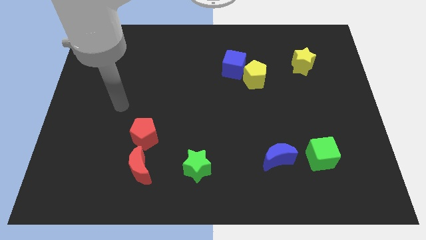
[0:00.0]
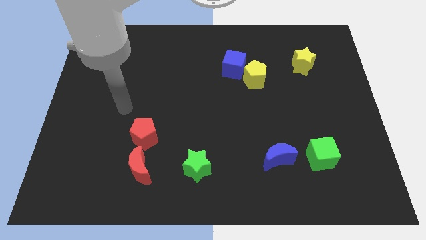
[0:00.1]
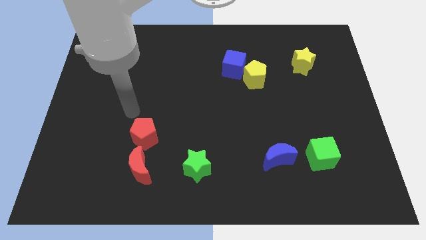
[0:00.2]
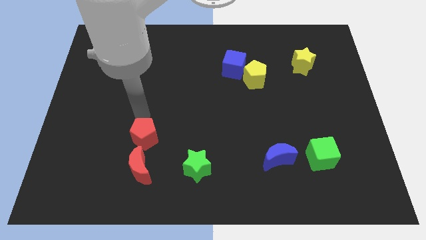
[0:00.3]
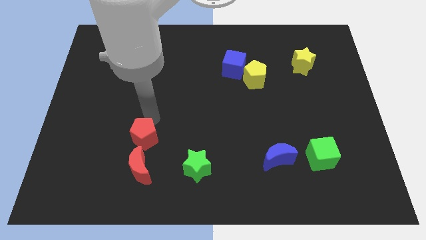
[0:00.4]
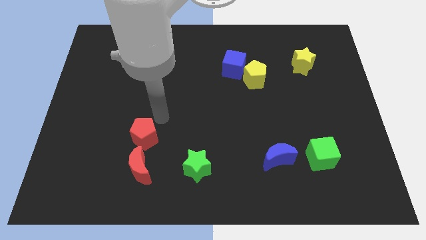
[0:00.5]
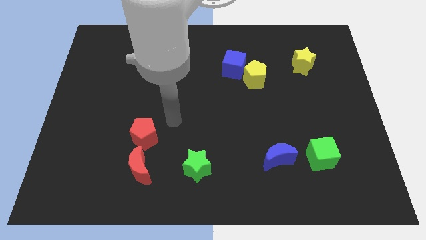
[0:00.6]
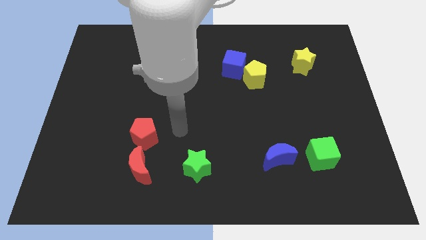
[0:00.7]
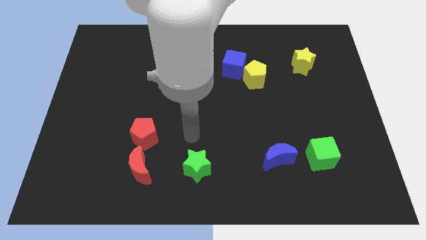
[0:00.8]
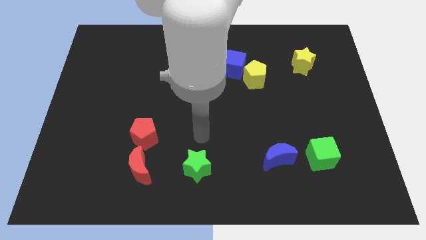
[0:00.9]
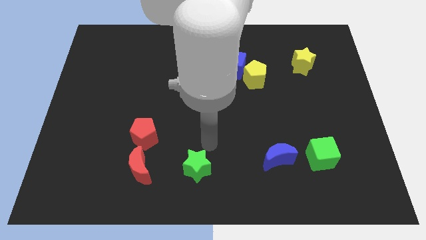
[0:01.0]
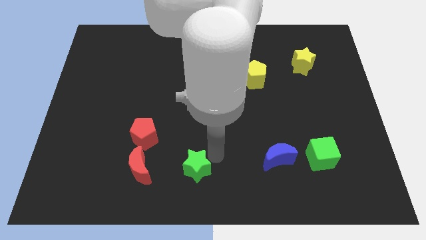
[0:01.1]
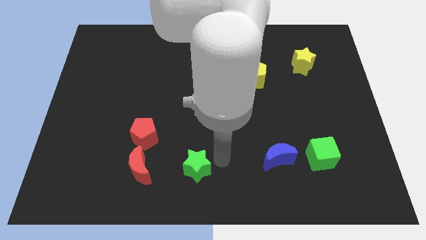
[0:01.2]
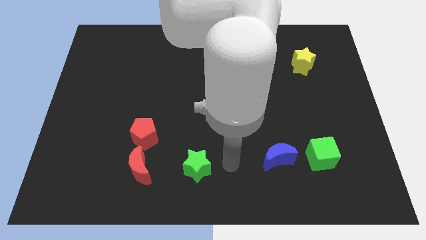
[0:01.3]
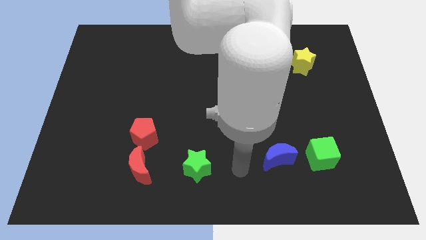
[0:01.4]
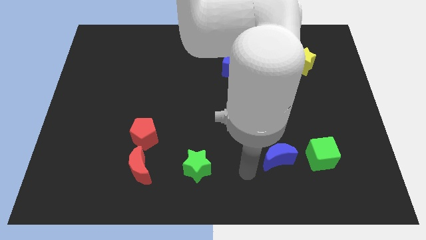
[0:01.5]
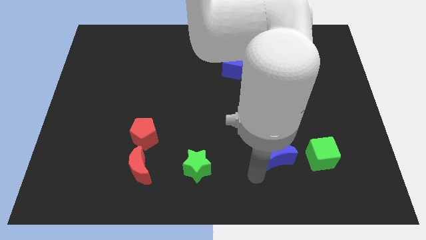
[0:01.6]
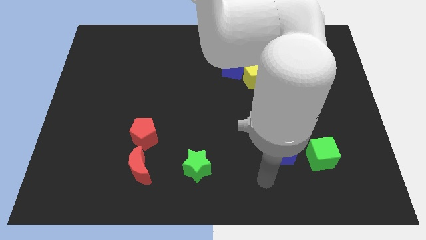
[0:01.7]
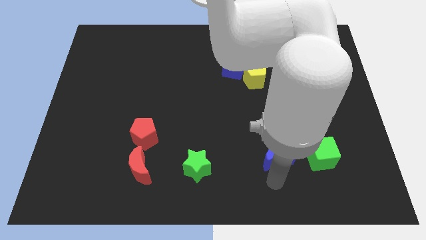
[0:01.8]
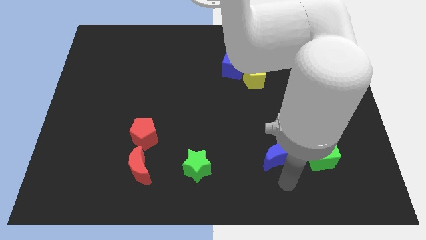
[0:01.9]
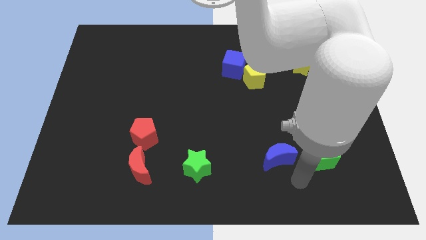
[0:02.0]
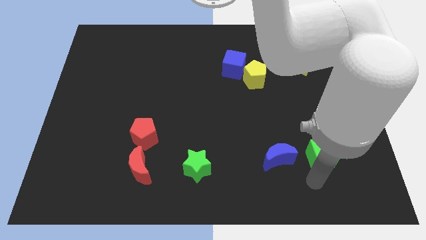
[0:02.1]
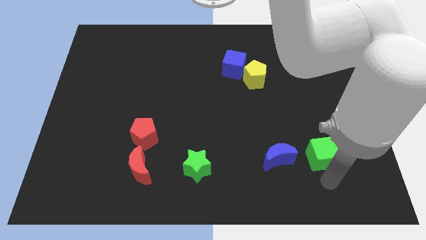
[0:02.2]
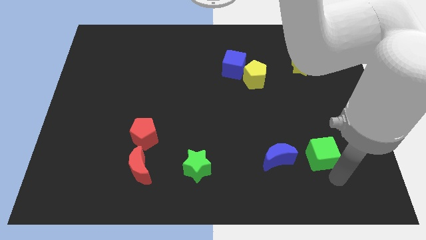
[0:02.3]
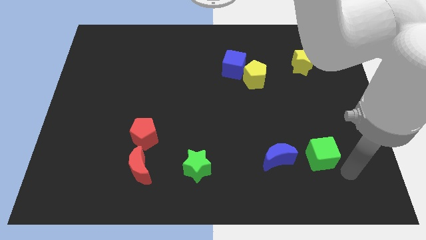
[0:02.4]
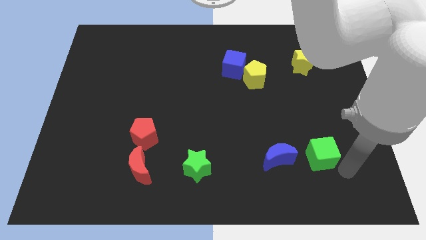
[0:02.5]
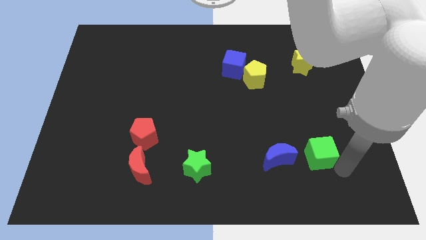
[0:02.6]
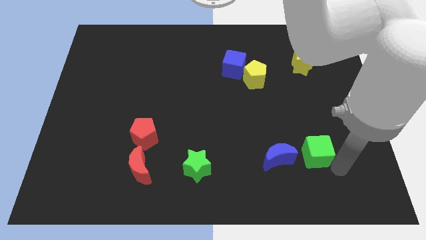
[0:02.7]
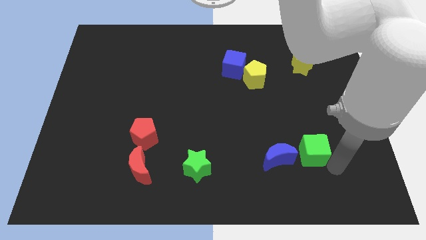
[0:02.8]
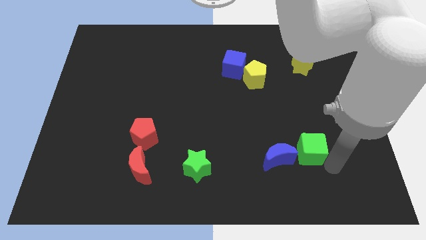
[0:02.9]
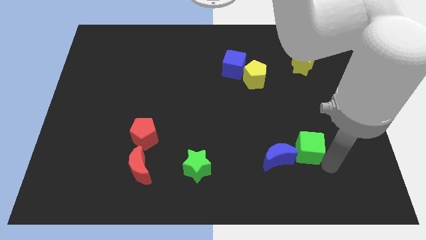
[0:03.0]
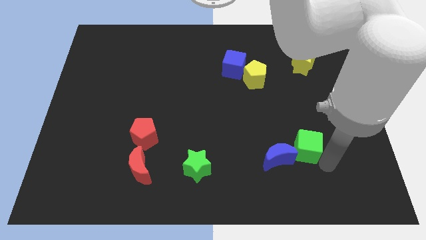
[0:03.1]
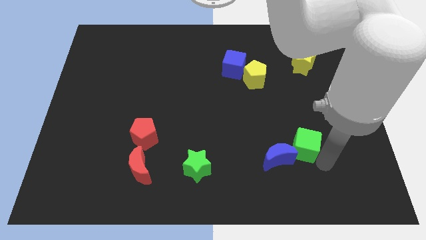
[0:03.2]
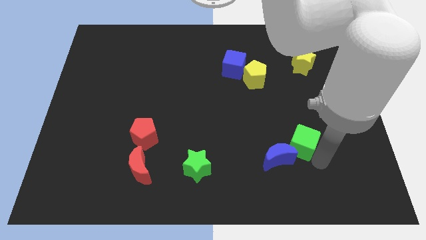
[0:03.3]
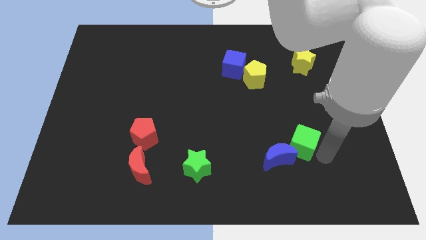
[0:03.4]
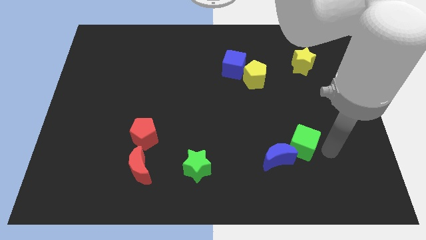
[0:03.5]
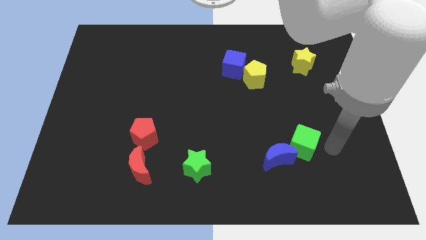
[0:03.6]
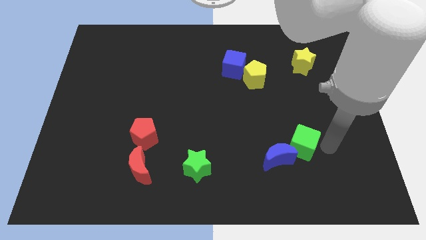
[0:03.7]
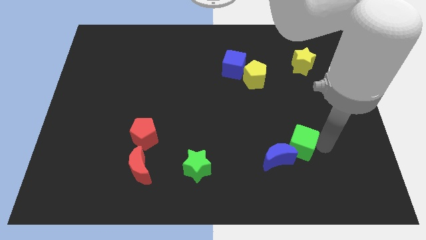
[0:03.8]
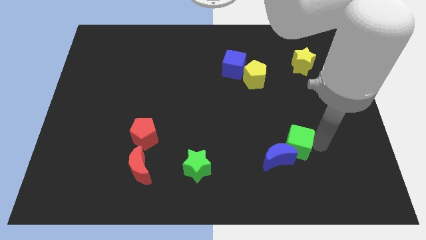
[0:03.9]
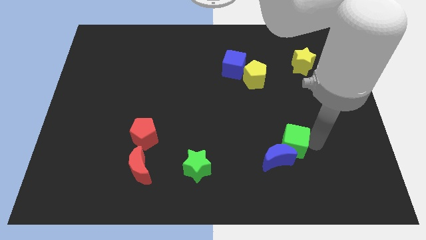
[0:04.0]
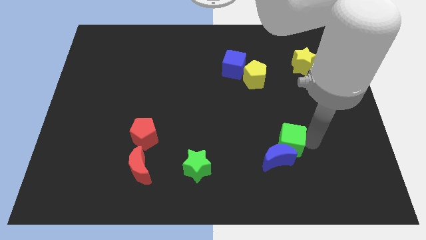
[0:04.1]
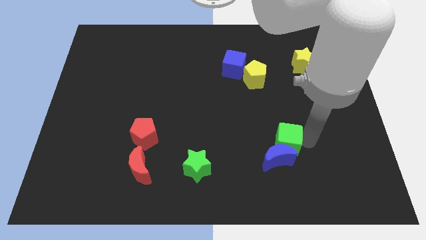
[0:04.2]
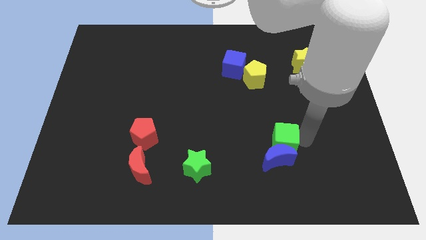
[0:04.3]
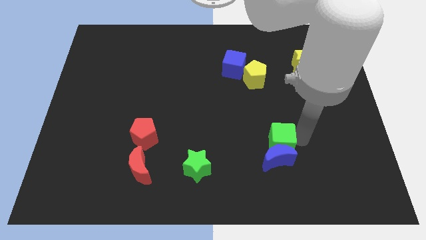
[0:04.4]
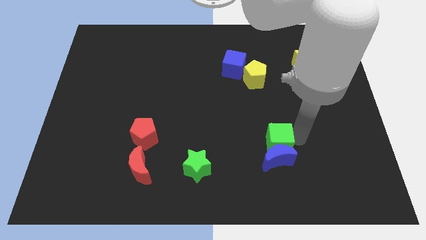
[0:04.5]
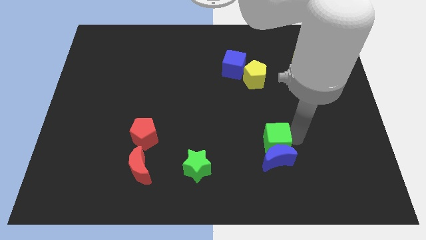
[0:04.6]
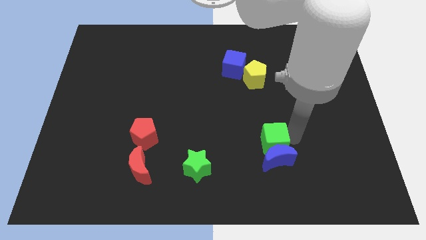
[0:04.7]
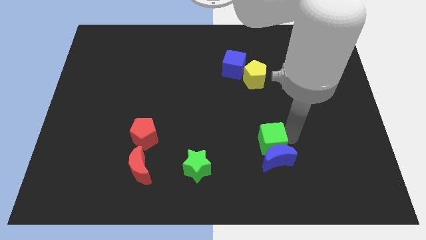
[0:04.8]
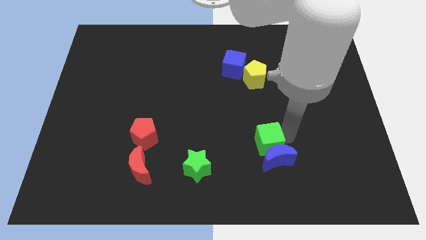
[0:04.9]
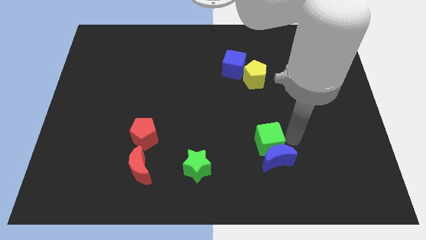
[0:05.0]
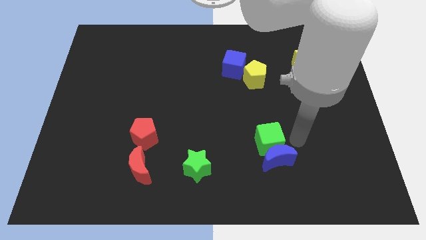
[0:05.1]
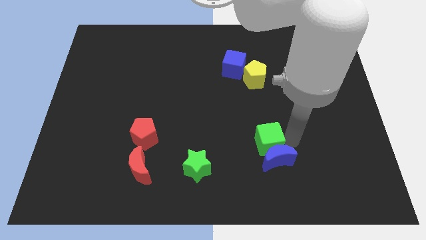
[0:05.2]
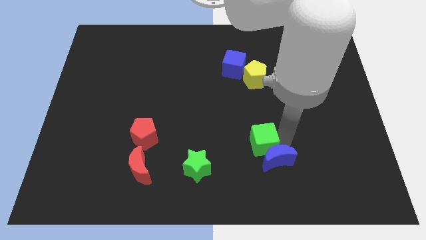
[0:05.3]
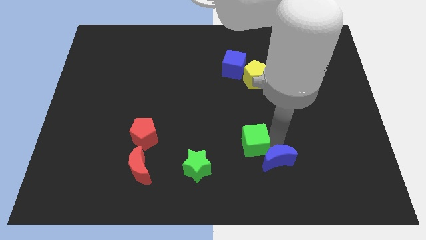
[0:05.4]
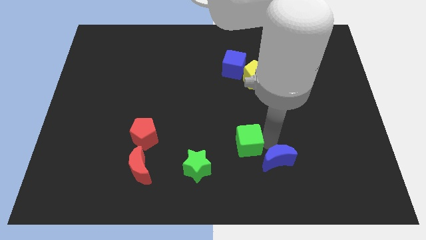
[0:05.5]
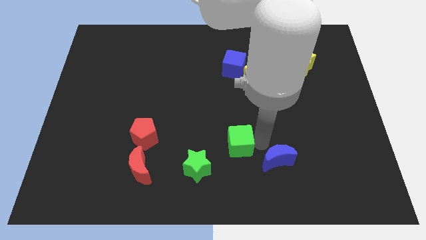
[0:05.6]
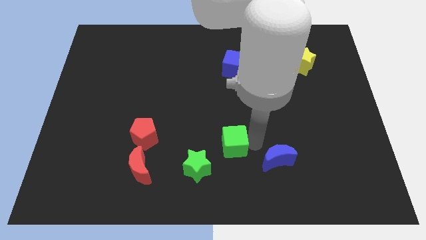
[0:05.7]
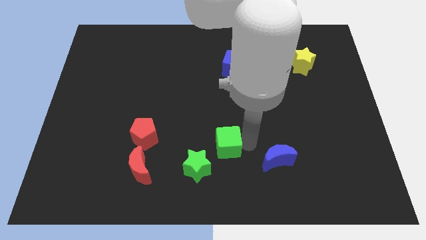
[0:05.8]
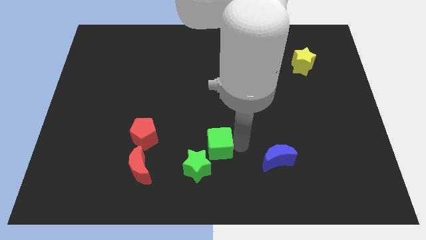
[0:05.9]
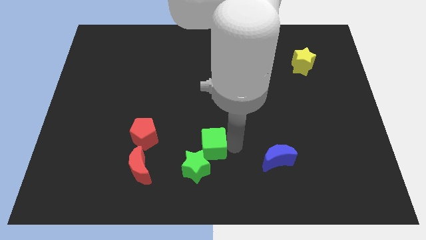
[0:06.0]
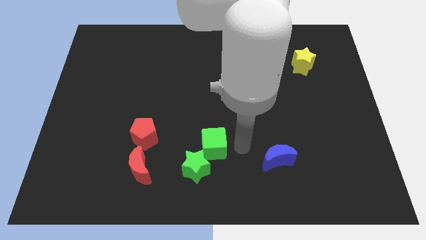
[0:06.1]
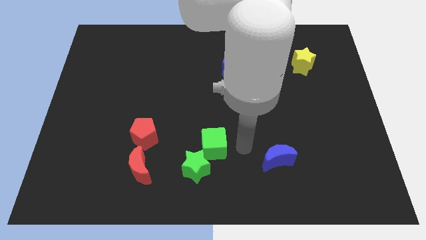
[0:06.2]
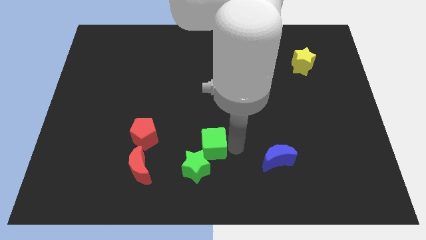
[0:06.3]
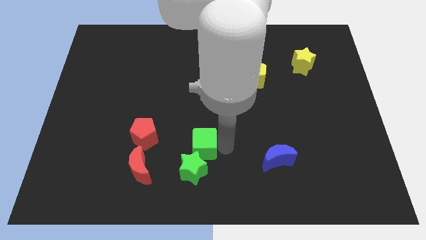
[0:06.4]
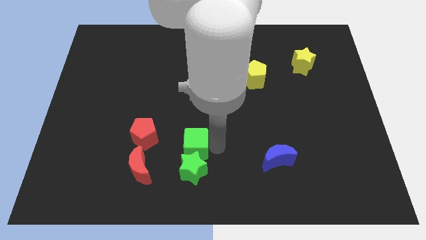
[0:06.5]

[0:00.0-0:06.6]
put the green cube diagonally up and to the left of the green star

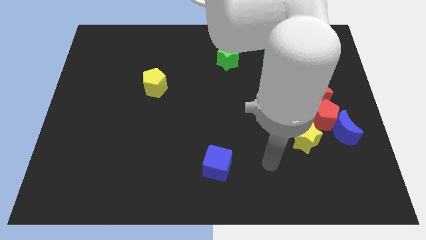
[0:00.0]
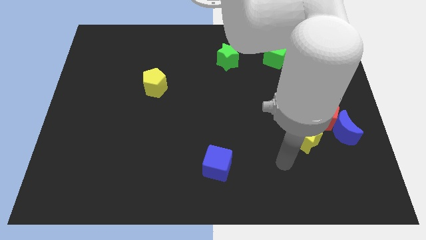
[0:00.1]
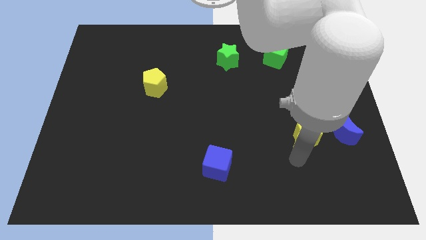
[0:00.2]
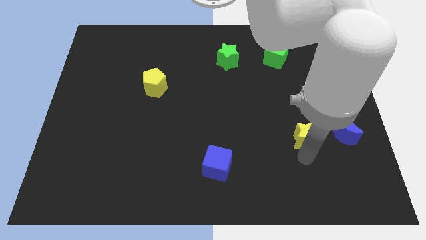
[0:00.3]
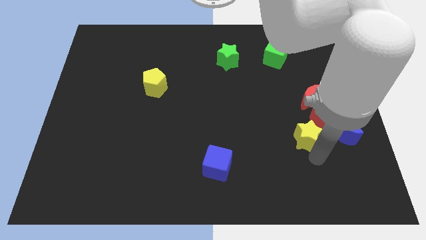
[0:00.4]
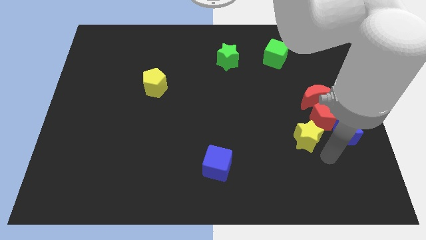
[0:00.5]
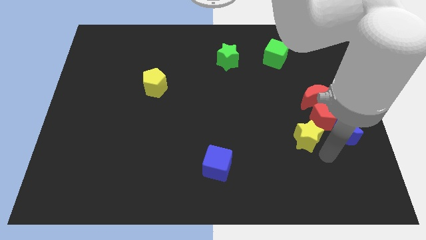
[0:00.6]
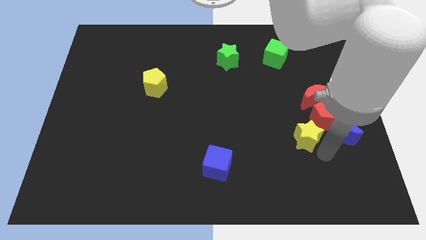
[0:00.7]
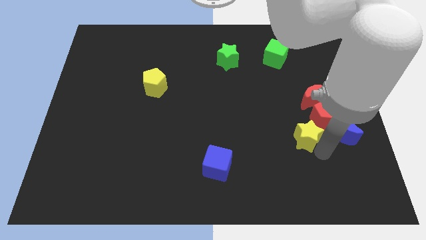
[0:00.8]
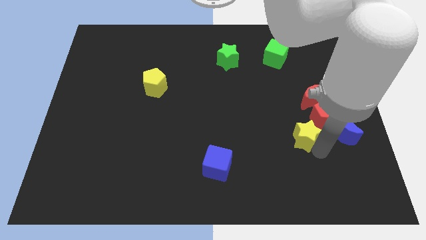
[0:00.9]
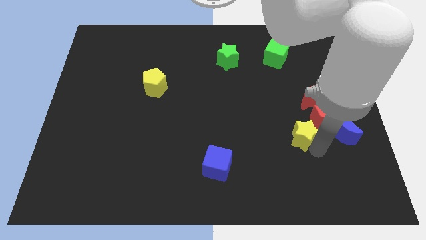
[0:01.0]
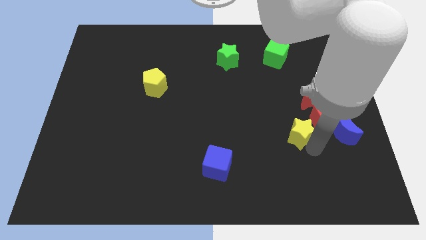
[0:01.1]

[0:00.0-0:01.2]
push the yellow star to the left side of the red pentagon
